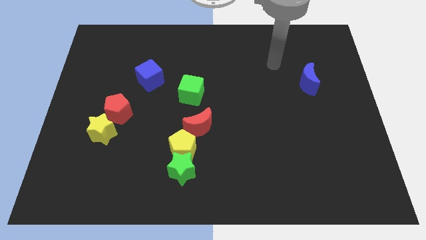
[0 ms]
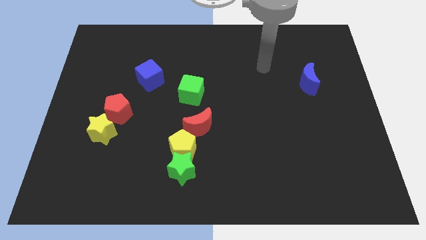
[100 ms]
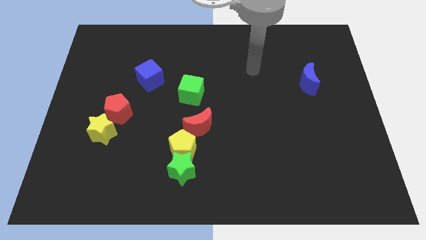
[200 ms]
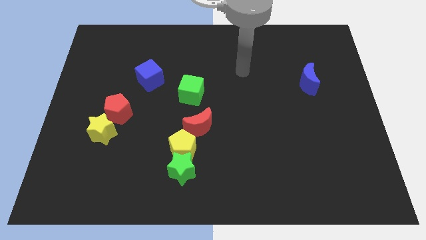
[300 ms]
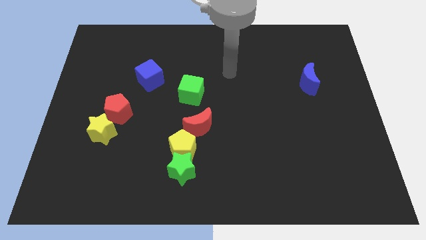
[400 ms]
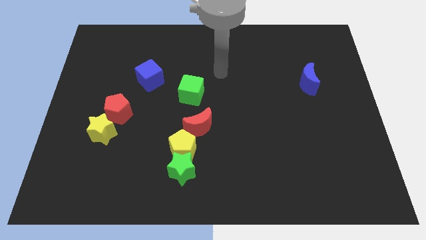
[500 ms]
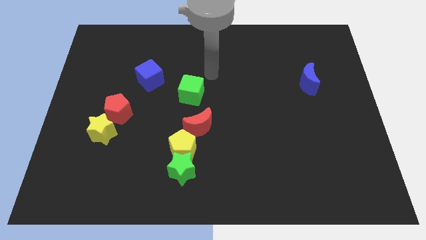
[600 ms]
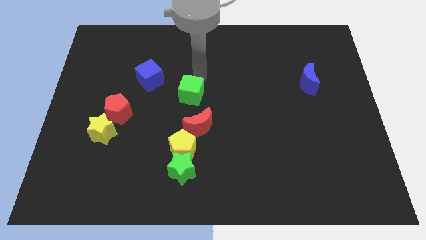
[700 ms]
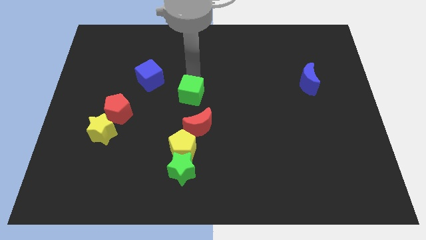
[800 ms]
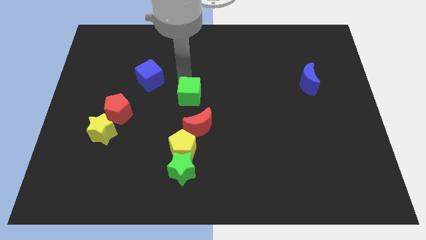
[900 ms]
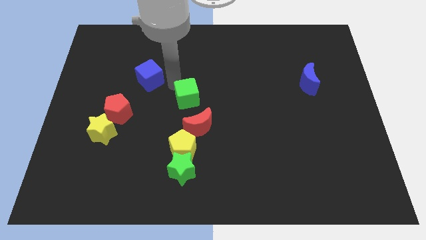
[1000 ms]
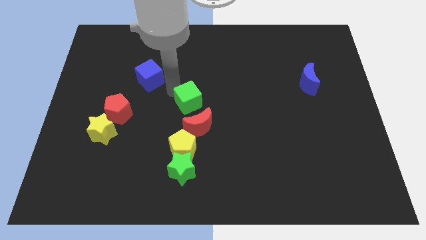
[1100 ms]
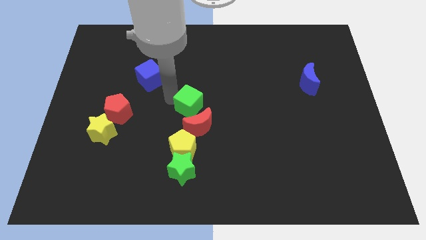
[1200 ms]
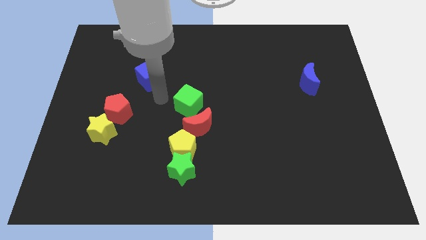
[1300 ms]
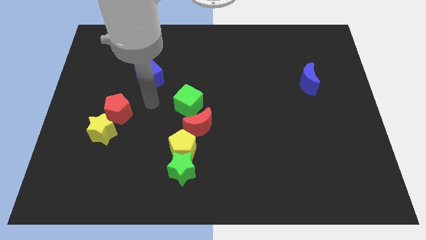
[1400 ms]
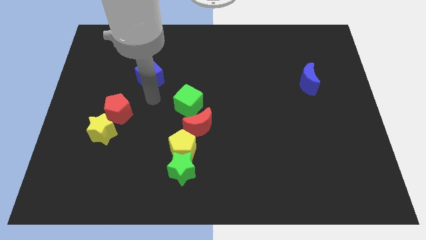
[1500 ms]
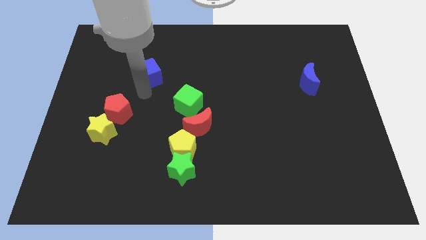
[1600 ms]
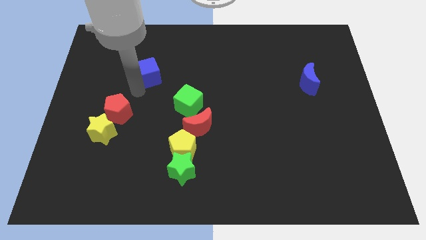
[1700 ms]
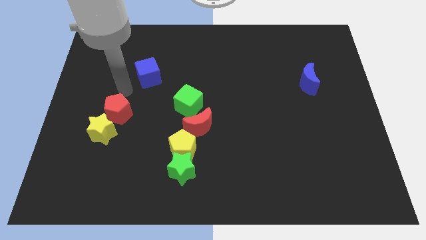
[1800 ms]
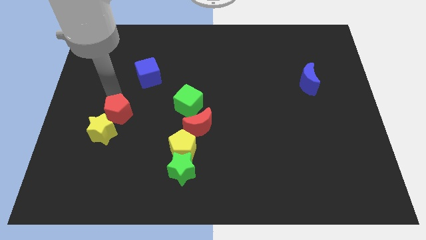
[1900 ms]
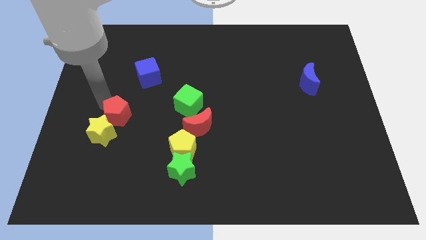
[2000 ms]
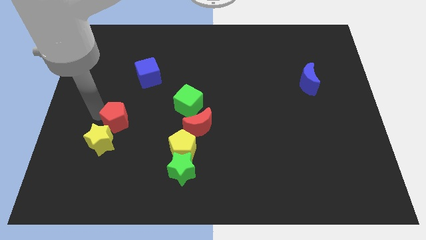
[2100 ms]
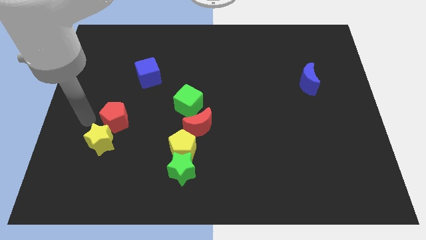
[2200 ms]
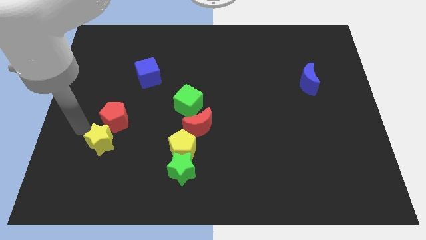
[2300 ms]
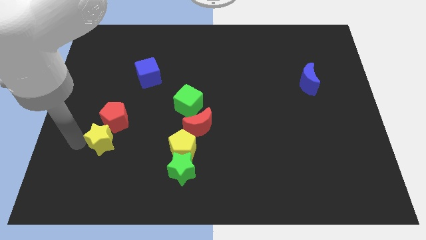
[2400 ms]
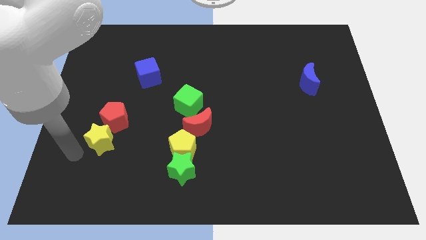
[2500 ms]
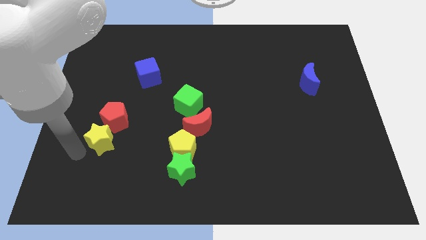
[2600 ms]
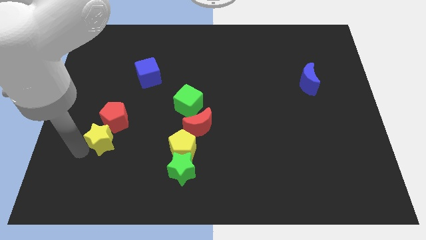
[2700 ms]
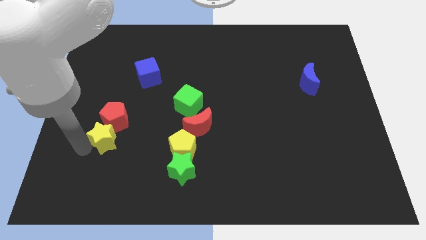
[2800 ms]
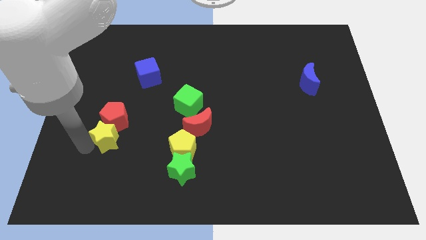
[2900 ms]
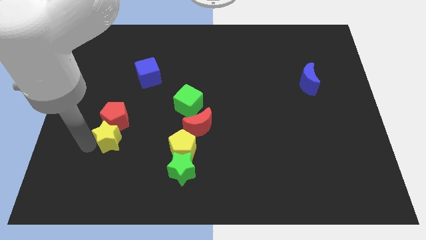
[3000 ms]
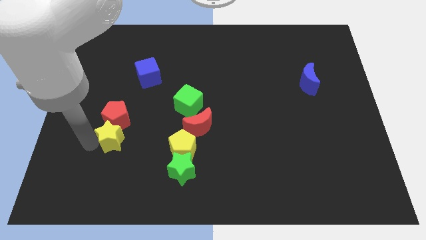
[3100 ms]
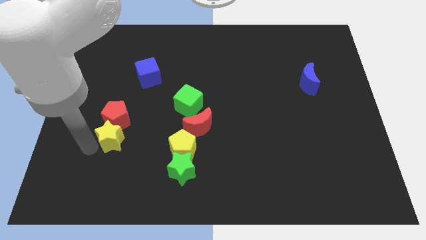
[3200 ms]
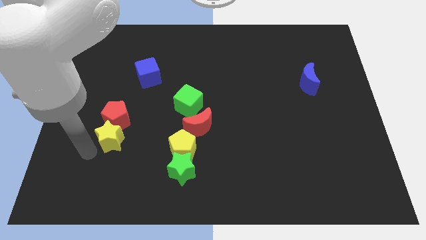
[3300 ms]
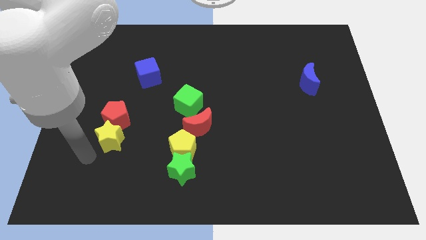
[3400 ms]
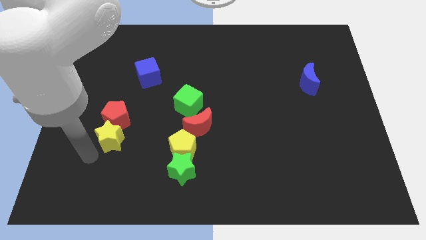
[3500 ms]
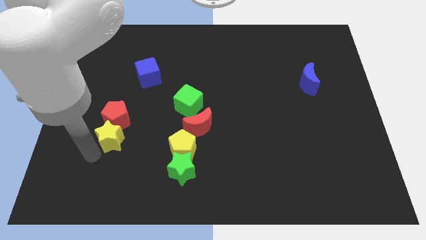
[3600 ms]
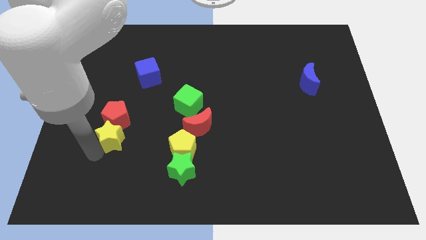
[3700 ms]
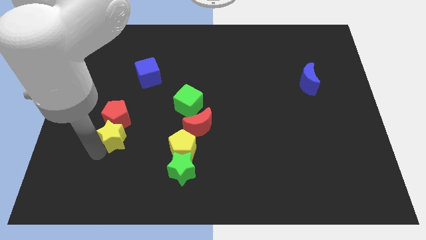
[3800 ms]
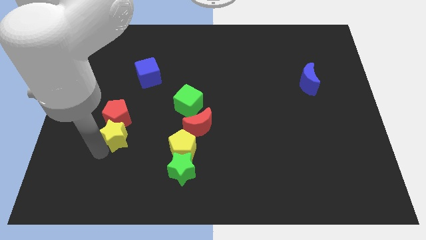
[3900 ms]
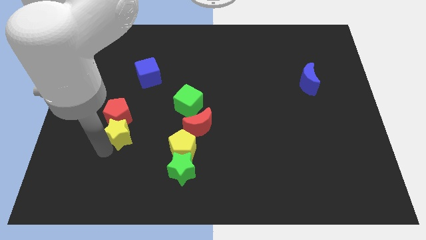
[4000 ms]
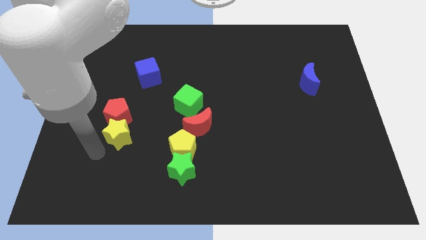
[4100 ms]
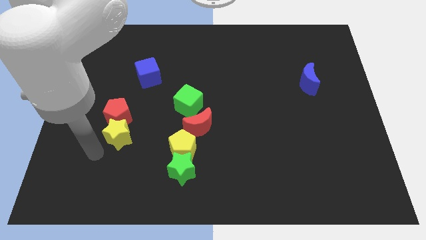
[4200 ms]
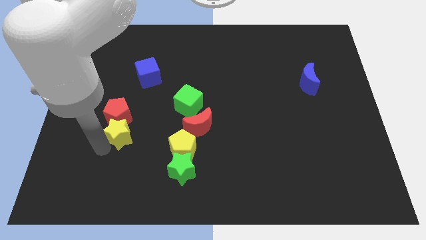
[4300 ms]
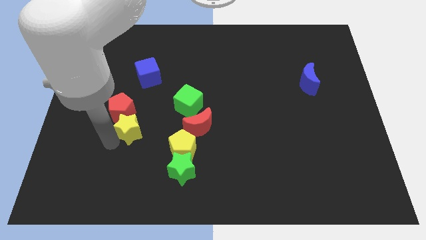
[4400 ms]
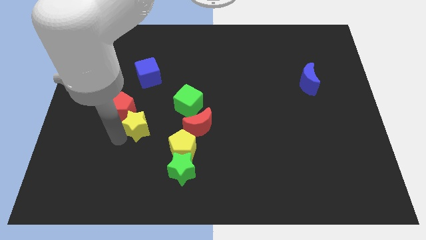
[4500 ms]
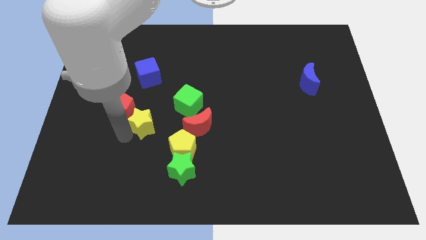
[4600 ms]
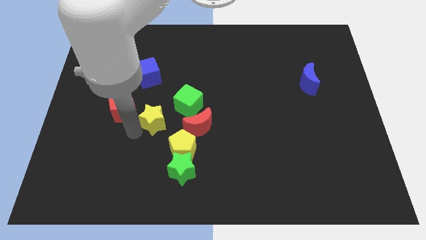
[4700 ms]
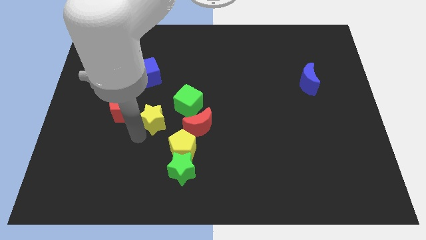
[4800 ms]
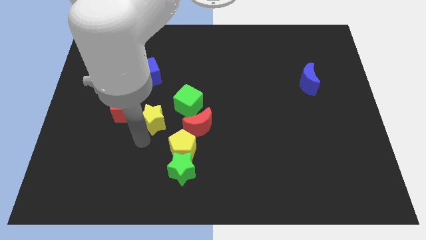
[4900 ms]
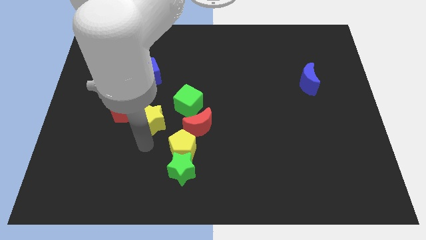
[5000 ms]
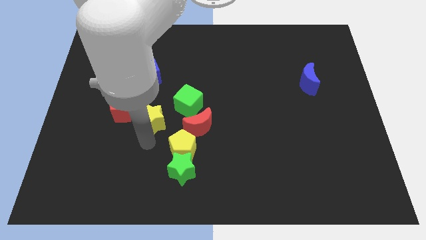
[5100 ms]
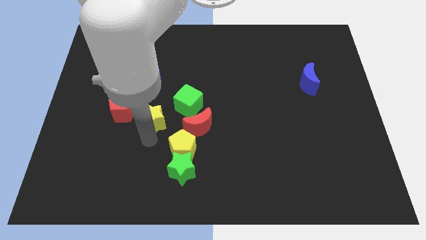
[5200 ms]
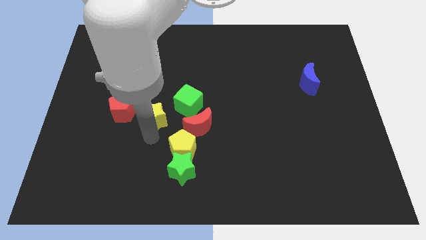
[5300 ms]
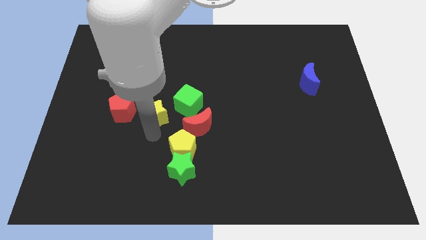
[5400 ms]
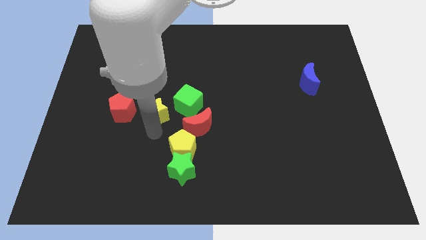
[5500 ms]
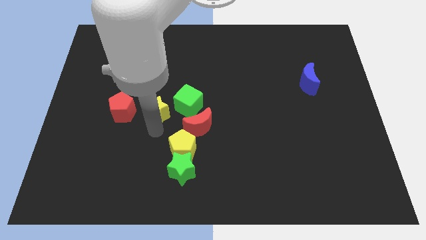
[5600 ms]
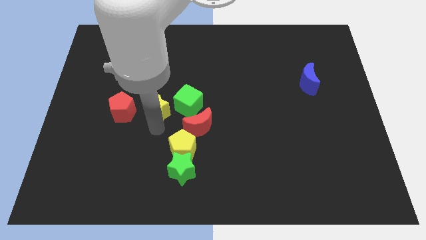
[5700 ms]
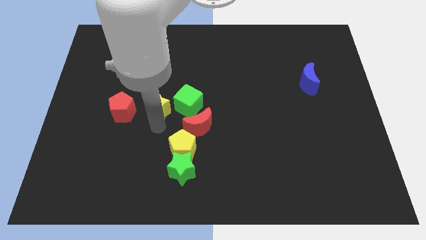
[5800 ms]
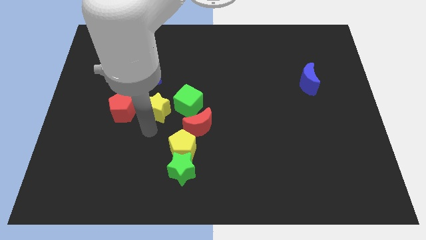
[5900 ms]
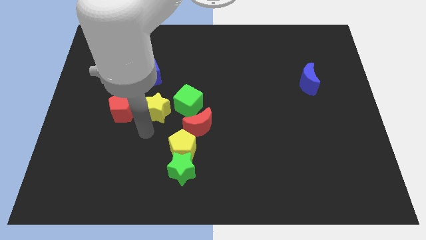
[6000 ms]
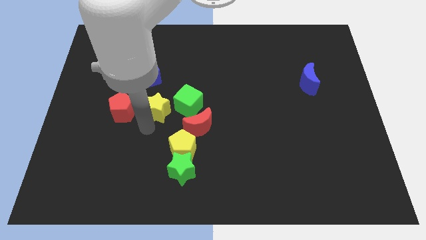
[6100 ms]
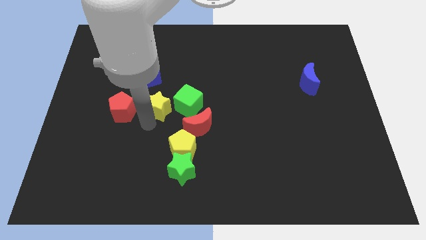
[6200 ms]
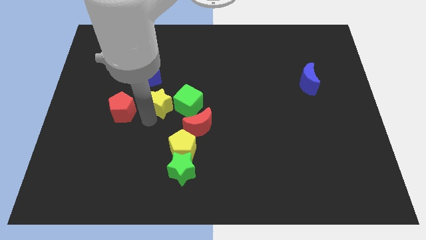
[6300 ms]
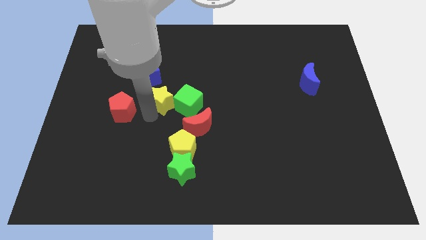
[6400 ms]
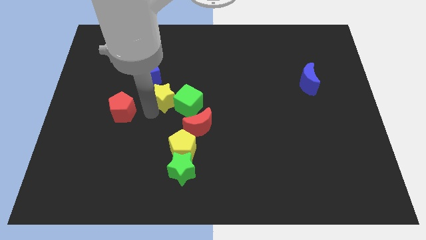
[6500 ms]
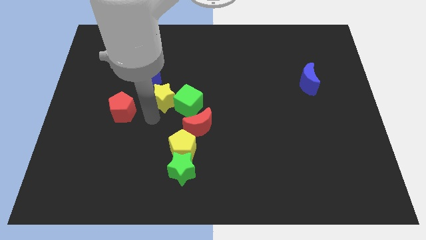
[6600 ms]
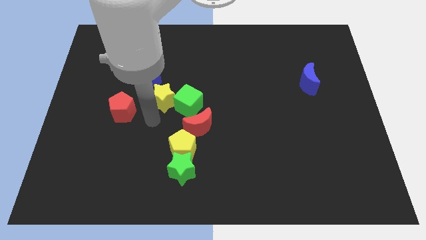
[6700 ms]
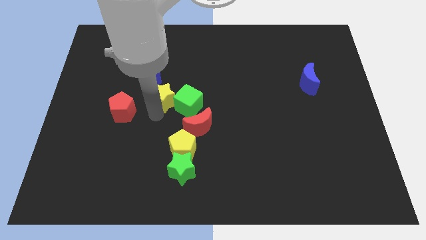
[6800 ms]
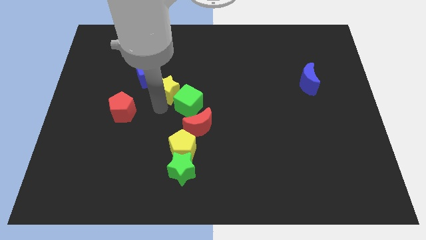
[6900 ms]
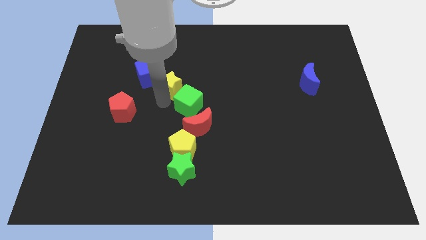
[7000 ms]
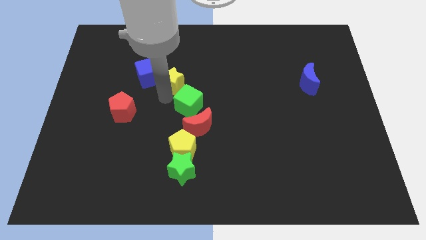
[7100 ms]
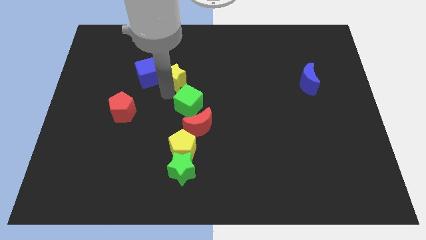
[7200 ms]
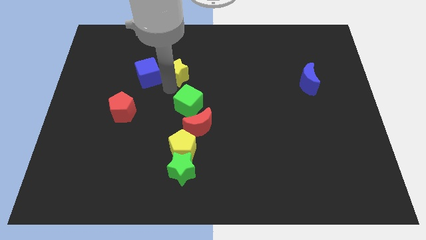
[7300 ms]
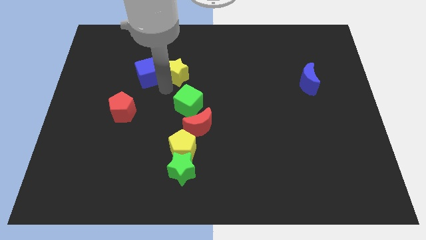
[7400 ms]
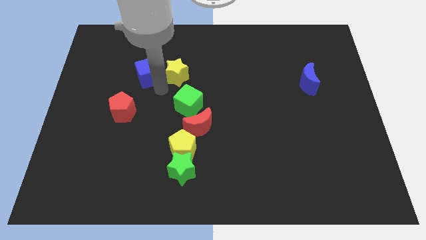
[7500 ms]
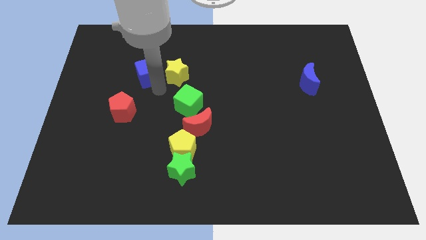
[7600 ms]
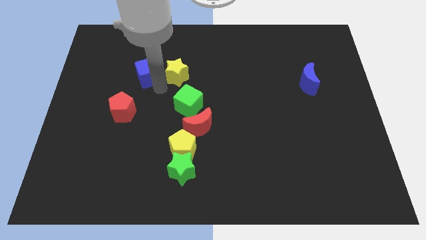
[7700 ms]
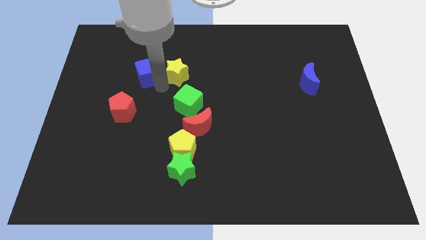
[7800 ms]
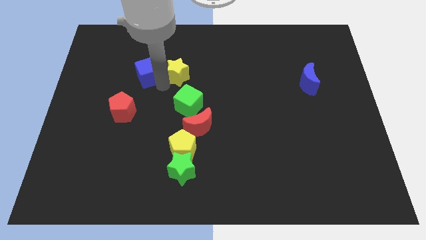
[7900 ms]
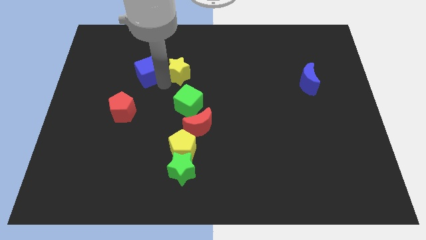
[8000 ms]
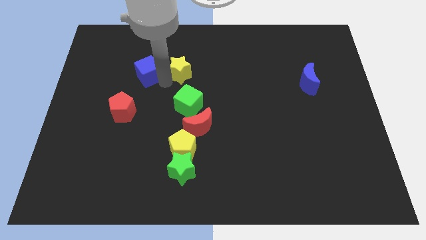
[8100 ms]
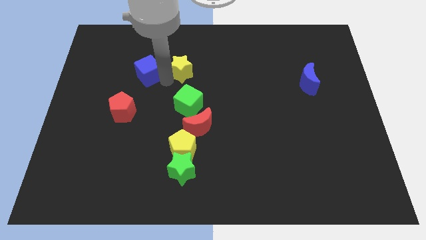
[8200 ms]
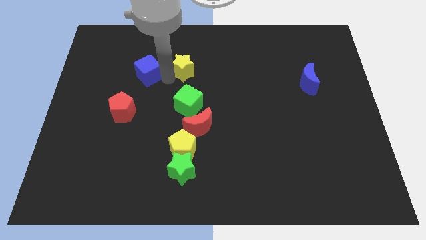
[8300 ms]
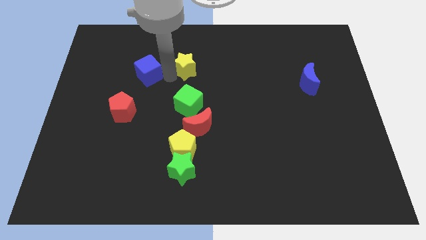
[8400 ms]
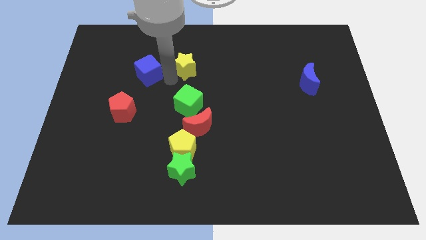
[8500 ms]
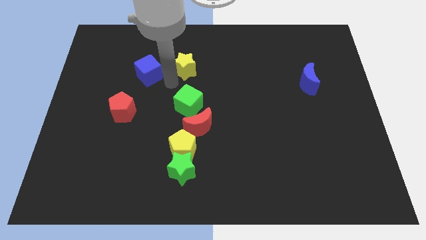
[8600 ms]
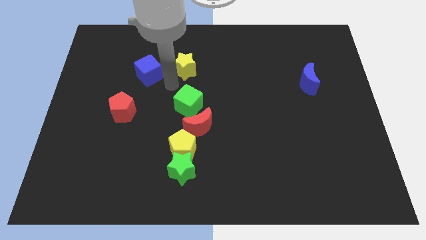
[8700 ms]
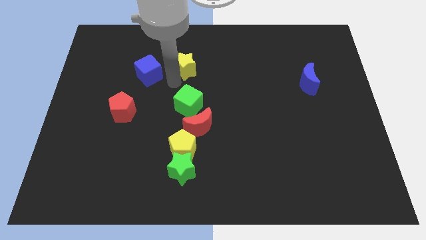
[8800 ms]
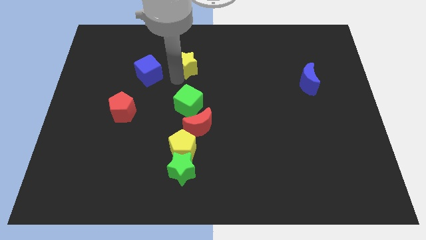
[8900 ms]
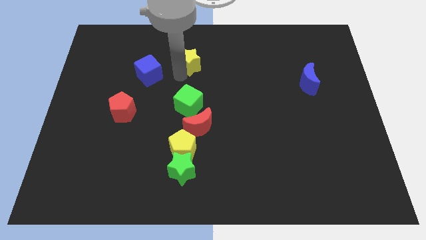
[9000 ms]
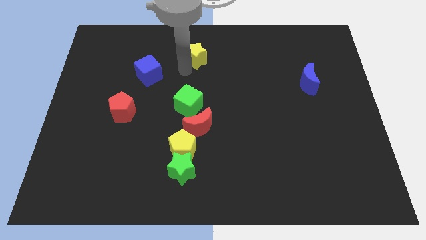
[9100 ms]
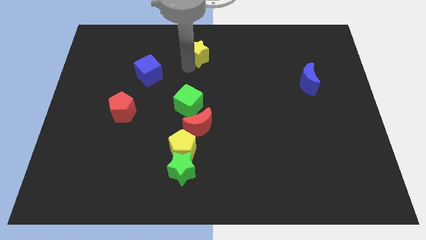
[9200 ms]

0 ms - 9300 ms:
put the yellow star to the towards your base
